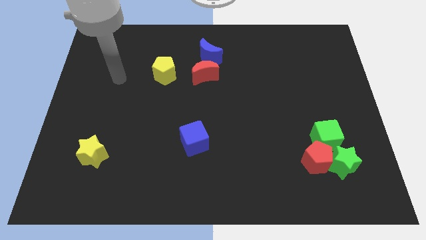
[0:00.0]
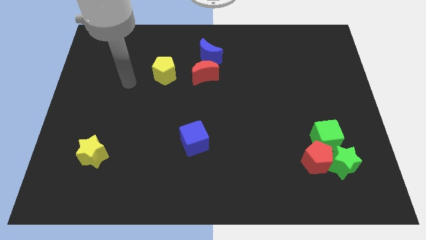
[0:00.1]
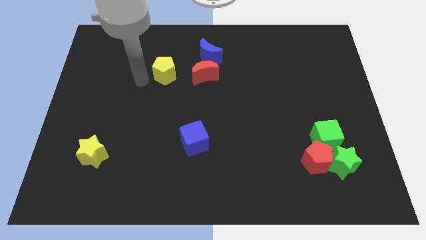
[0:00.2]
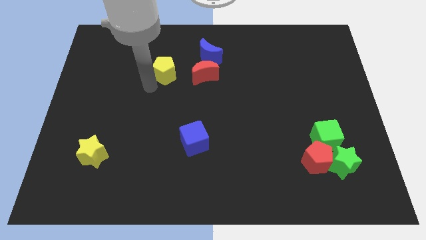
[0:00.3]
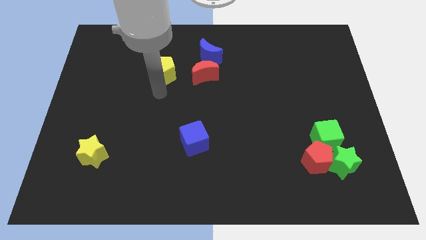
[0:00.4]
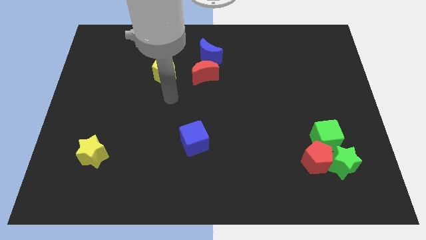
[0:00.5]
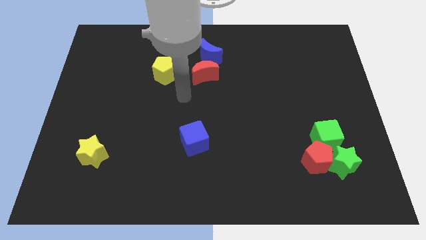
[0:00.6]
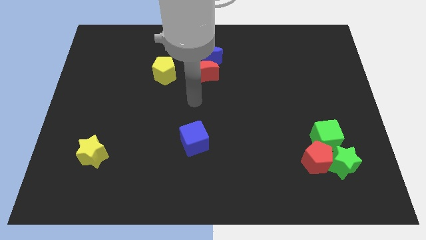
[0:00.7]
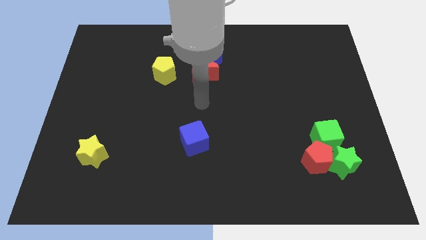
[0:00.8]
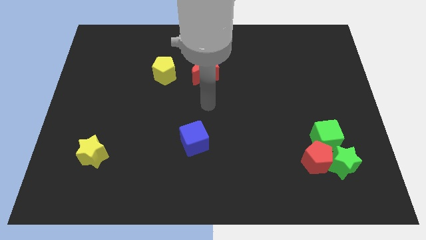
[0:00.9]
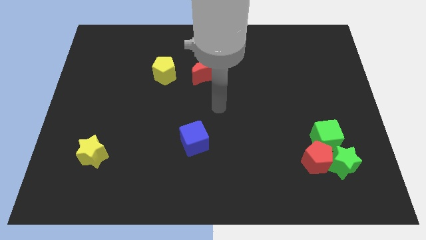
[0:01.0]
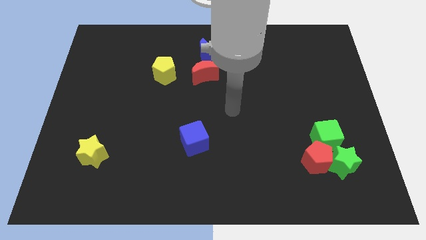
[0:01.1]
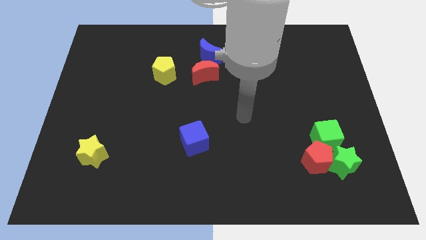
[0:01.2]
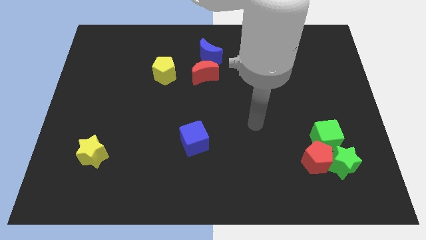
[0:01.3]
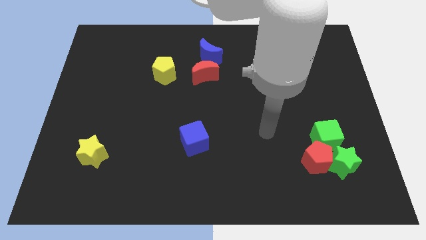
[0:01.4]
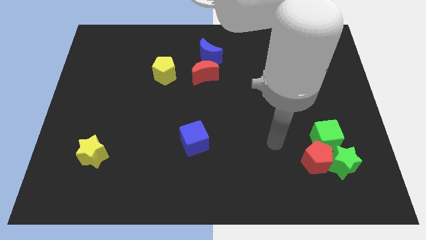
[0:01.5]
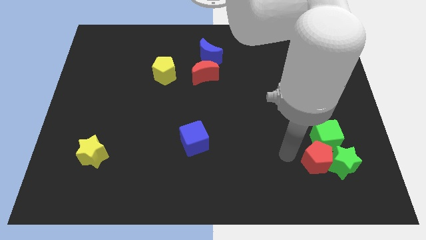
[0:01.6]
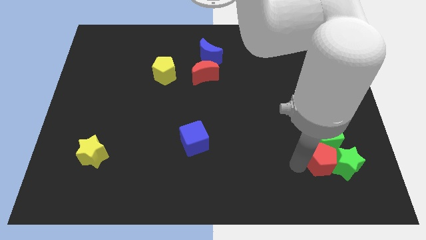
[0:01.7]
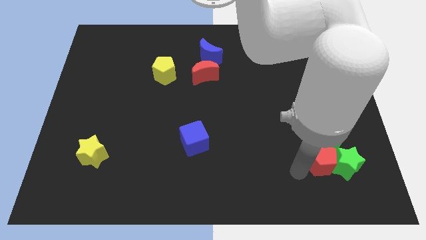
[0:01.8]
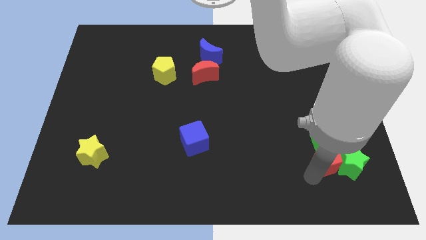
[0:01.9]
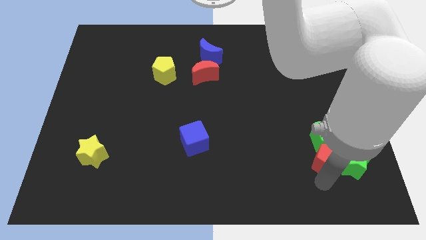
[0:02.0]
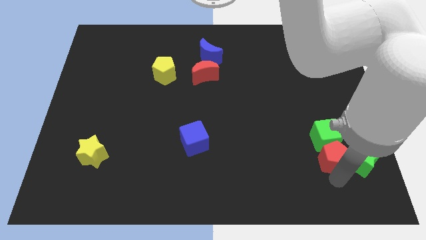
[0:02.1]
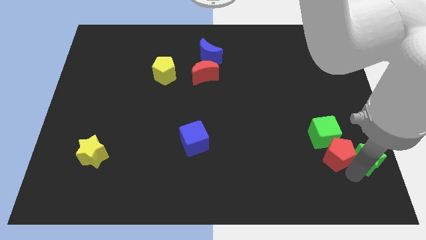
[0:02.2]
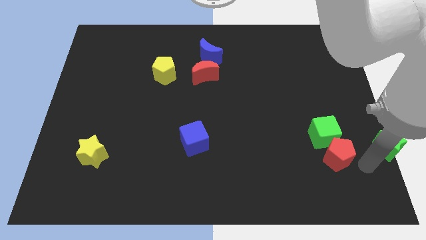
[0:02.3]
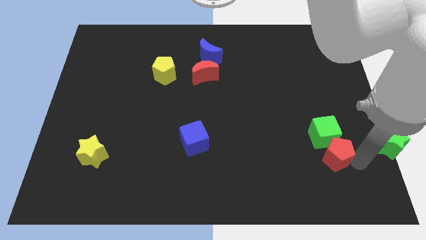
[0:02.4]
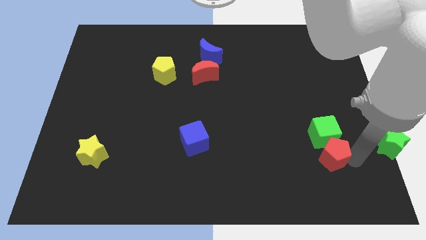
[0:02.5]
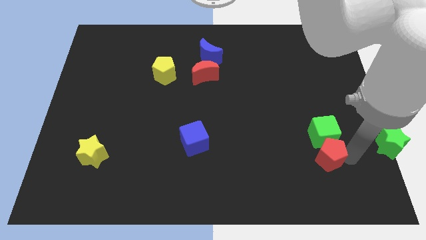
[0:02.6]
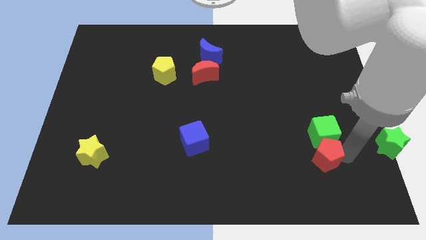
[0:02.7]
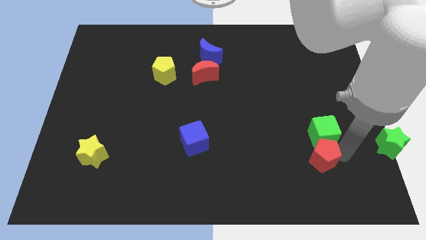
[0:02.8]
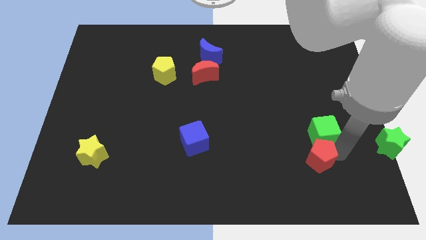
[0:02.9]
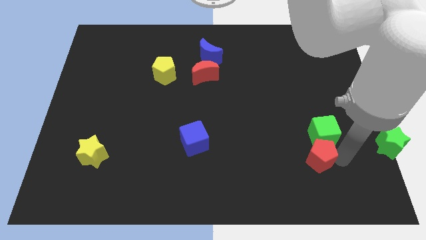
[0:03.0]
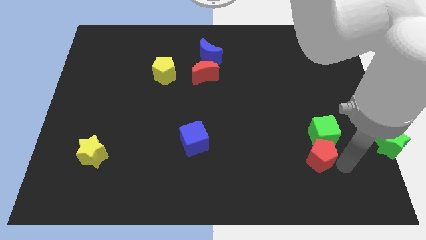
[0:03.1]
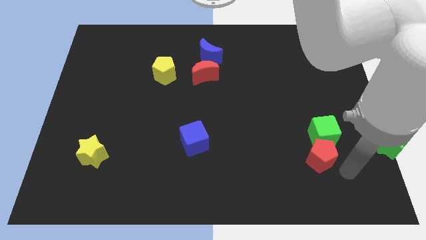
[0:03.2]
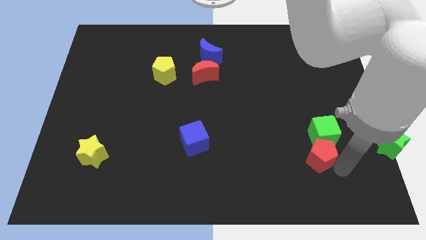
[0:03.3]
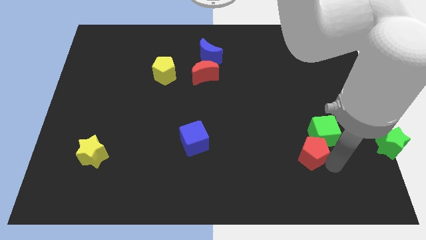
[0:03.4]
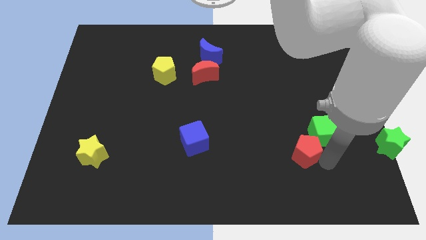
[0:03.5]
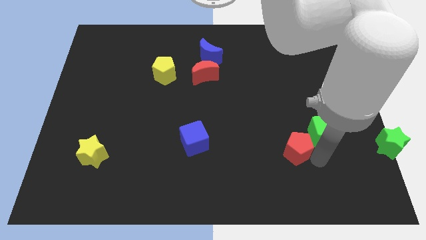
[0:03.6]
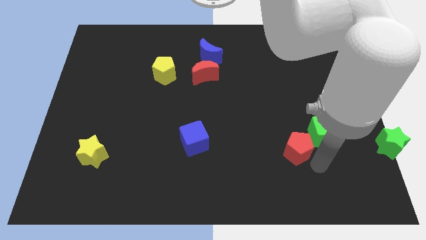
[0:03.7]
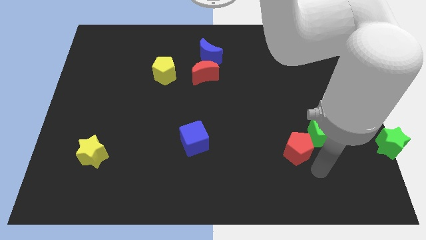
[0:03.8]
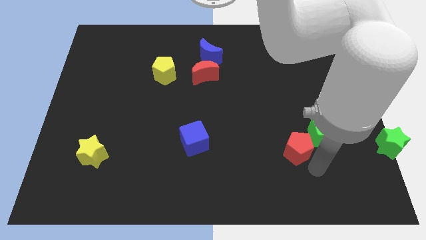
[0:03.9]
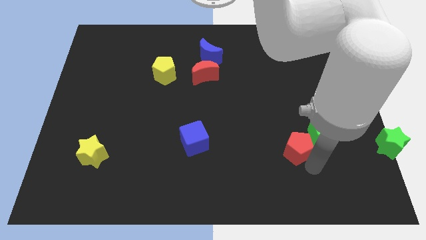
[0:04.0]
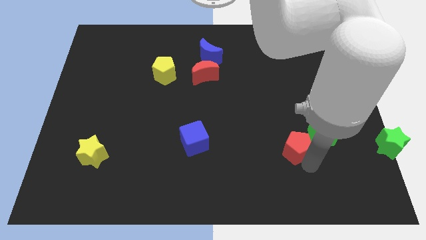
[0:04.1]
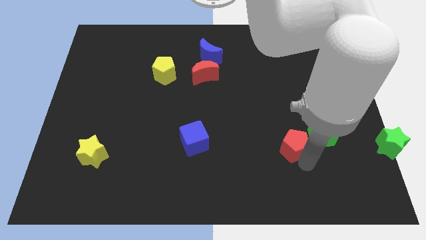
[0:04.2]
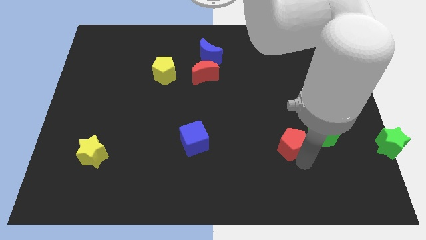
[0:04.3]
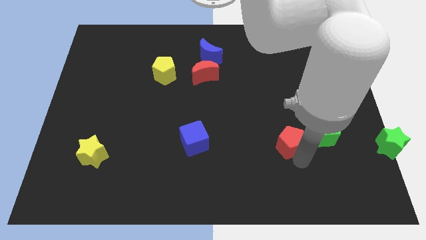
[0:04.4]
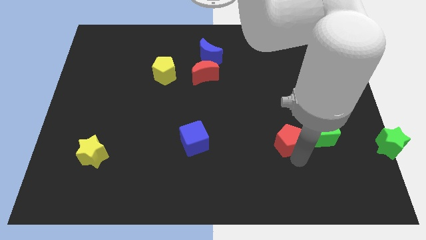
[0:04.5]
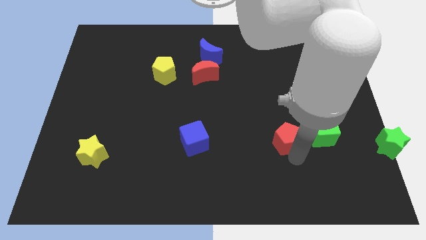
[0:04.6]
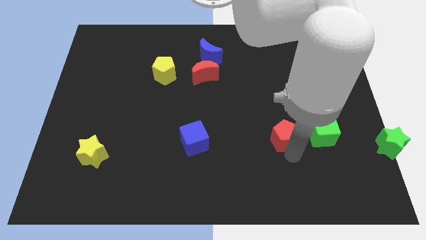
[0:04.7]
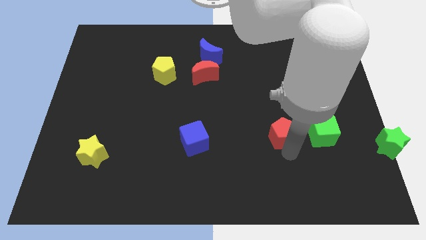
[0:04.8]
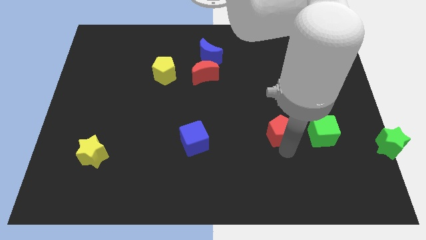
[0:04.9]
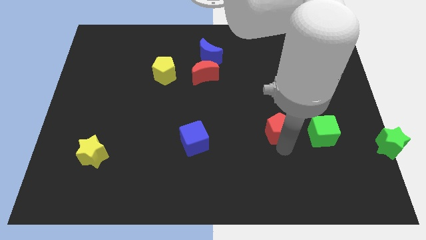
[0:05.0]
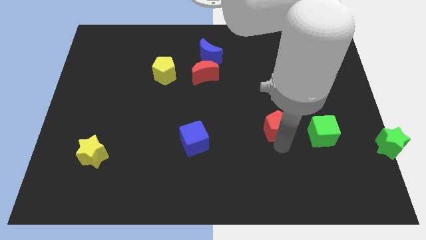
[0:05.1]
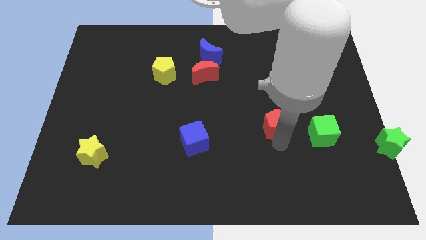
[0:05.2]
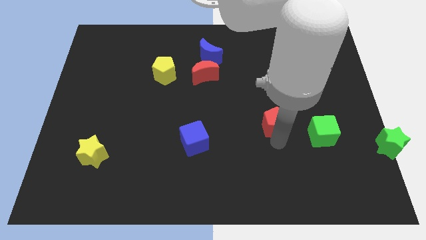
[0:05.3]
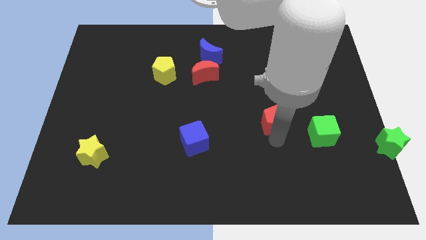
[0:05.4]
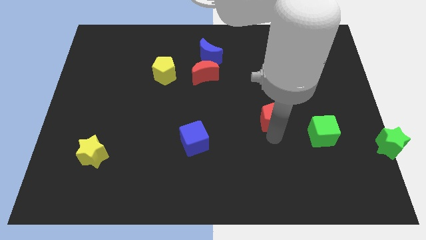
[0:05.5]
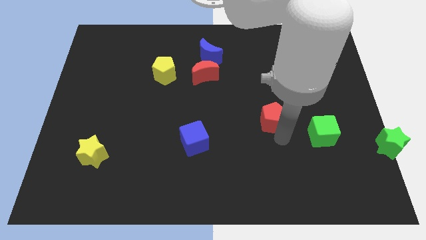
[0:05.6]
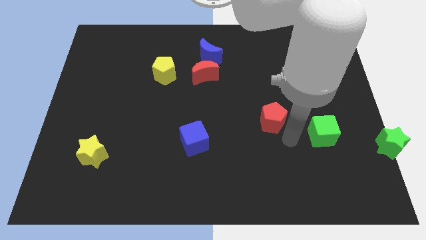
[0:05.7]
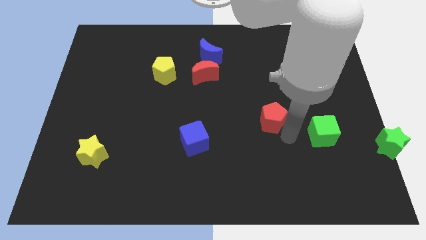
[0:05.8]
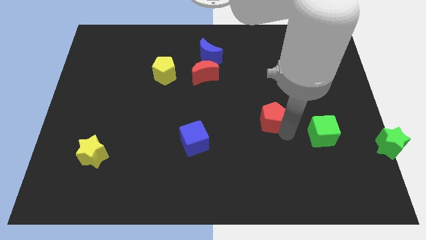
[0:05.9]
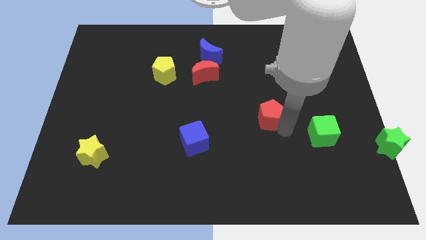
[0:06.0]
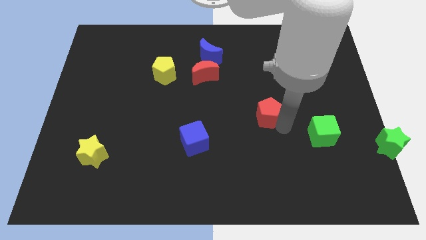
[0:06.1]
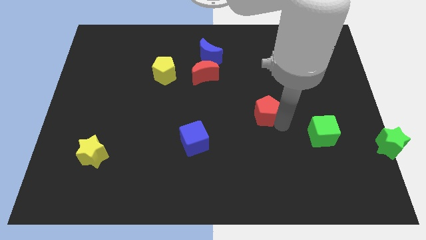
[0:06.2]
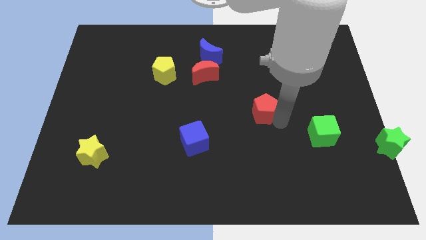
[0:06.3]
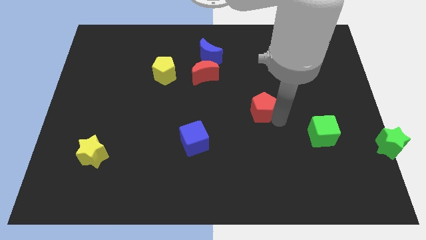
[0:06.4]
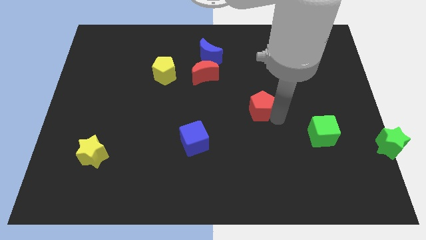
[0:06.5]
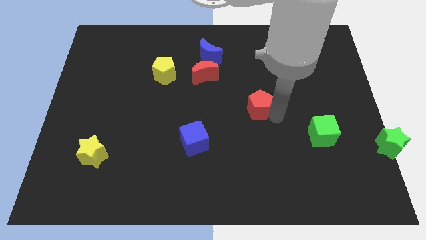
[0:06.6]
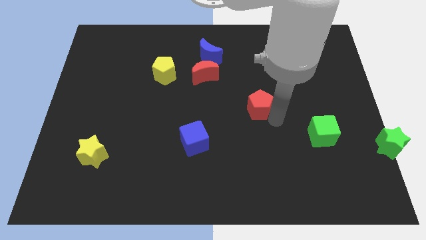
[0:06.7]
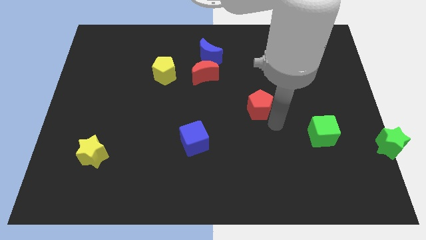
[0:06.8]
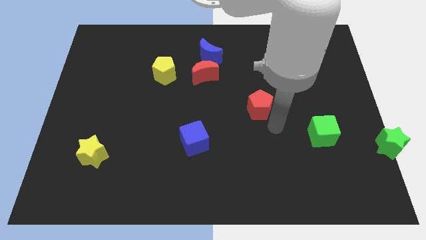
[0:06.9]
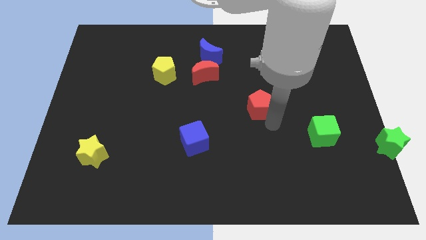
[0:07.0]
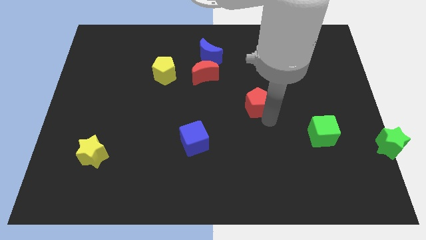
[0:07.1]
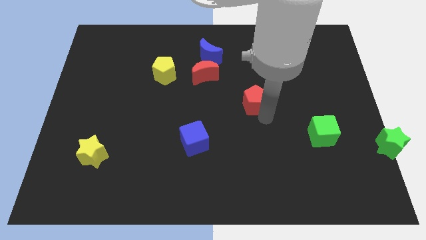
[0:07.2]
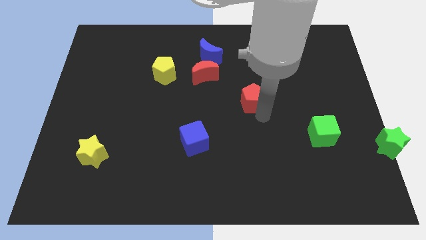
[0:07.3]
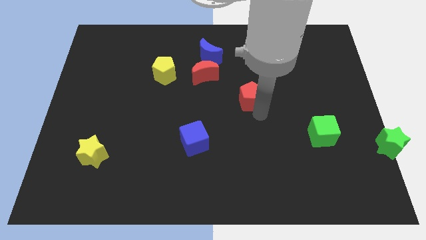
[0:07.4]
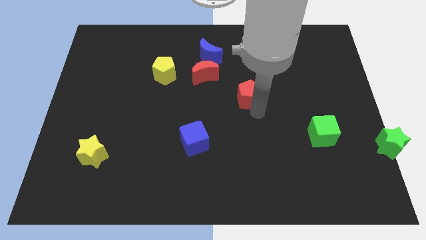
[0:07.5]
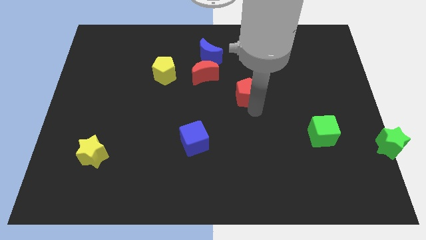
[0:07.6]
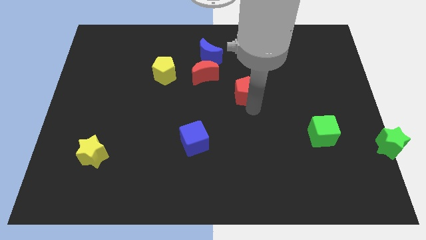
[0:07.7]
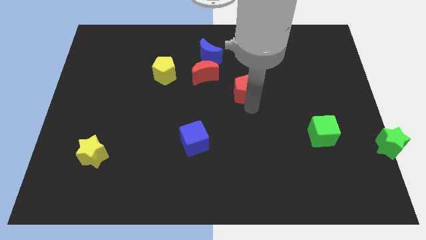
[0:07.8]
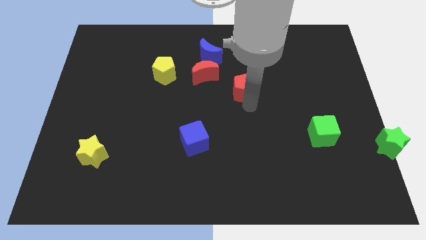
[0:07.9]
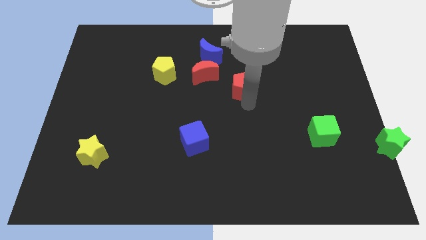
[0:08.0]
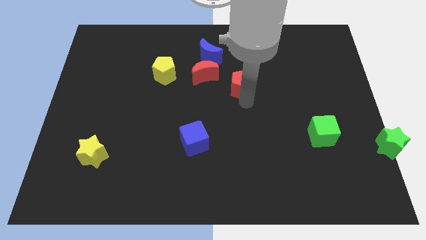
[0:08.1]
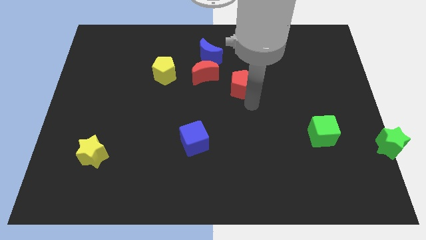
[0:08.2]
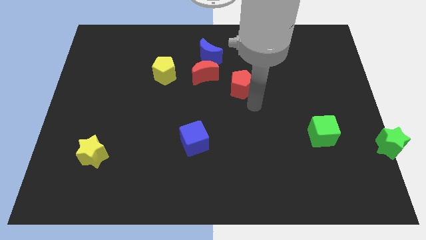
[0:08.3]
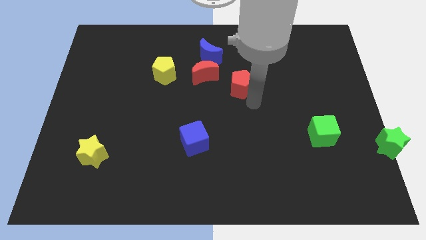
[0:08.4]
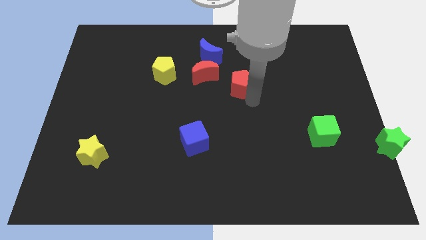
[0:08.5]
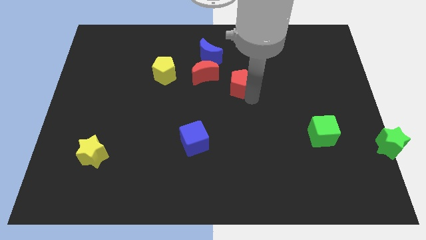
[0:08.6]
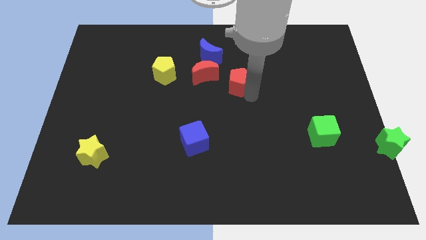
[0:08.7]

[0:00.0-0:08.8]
push the red pentagon to the bottom right of the blue moon
